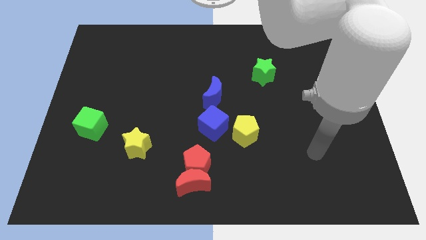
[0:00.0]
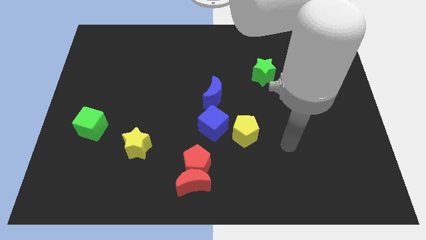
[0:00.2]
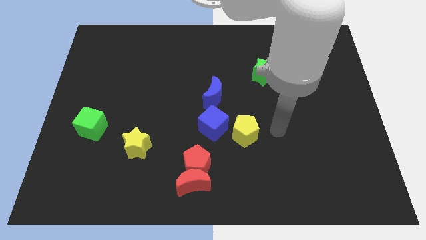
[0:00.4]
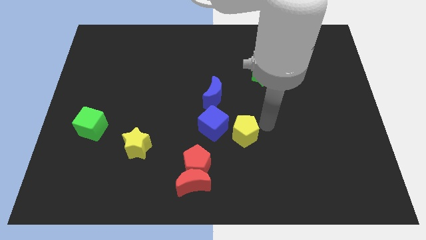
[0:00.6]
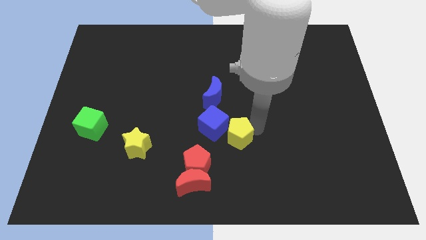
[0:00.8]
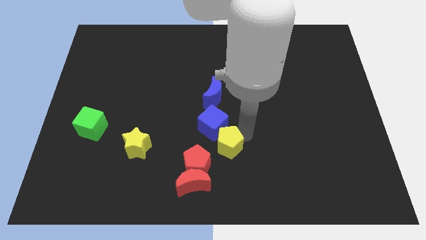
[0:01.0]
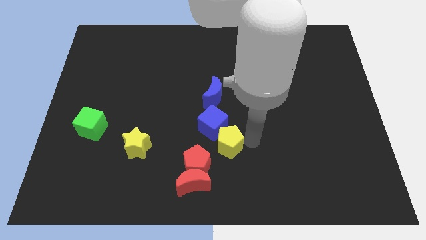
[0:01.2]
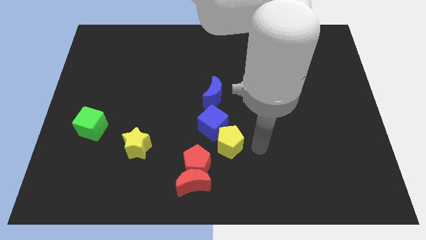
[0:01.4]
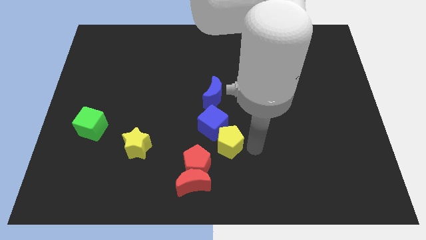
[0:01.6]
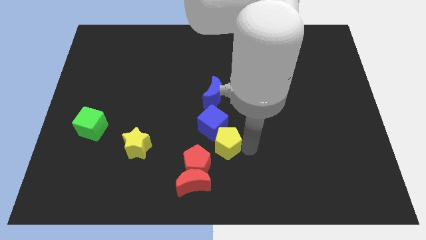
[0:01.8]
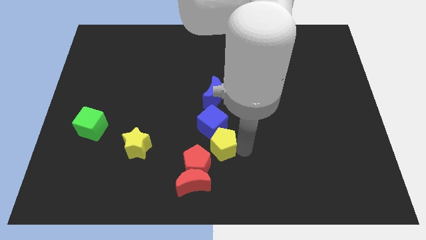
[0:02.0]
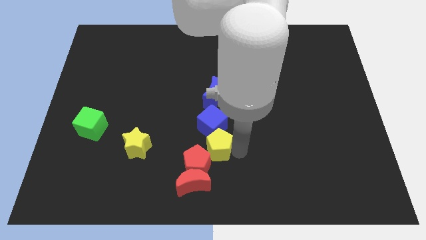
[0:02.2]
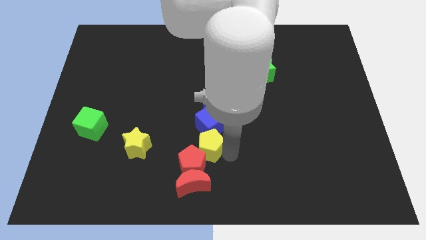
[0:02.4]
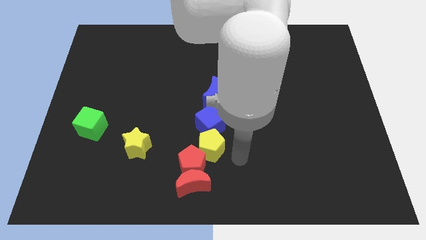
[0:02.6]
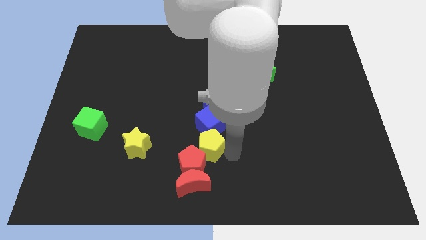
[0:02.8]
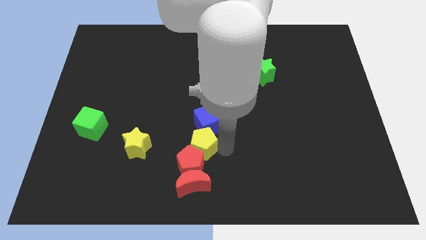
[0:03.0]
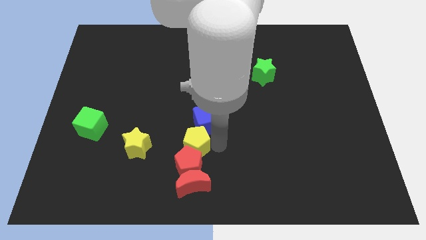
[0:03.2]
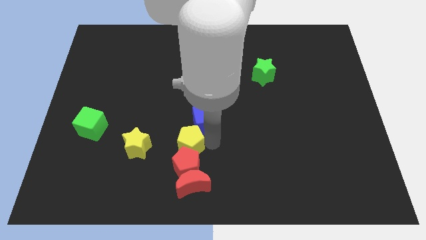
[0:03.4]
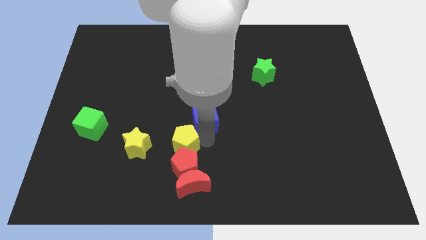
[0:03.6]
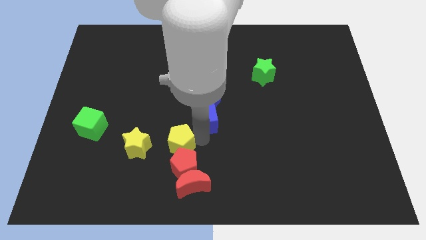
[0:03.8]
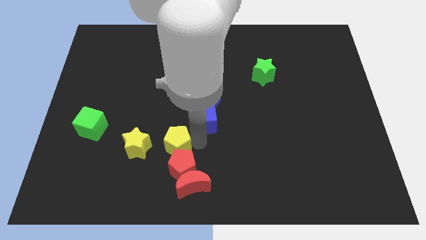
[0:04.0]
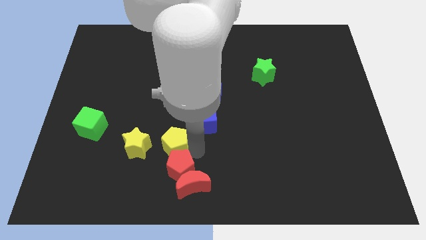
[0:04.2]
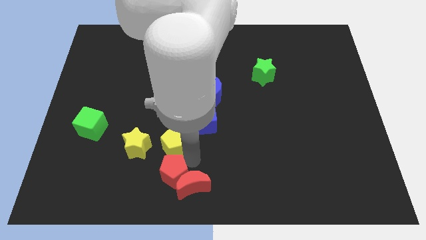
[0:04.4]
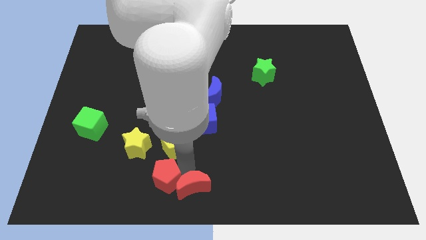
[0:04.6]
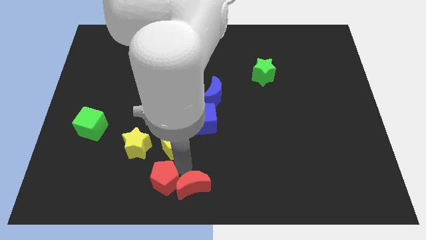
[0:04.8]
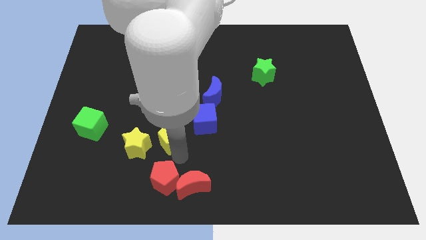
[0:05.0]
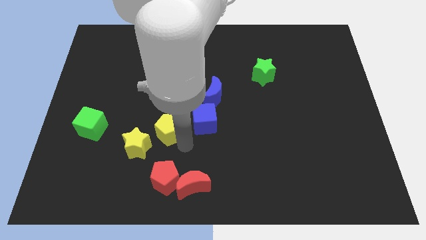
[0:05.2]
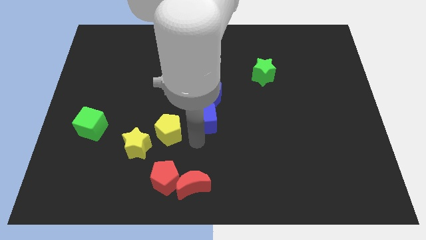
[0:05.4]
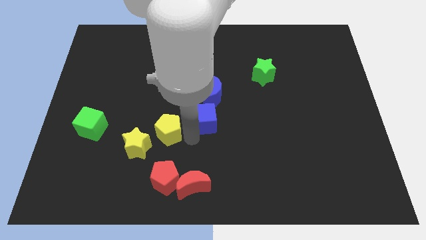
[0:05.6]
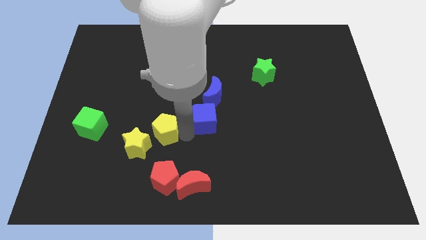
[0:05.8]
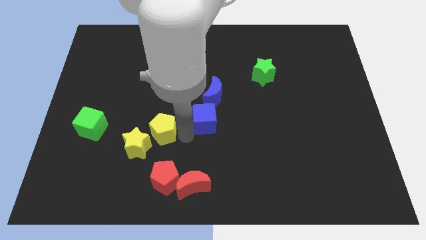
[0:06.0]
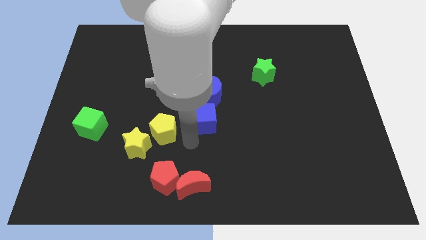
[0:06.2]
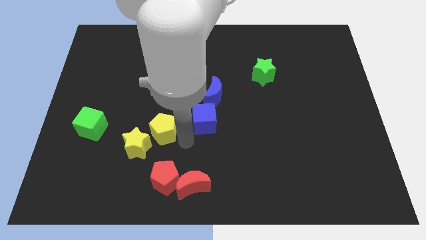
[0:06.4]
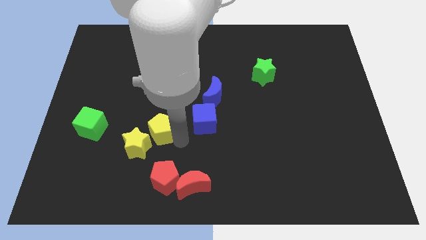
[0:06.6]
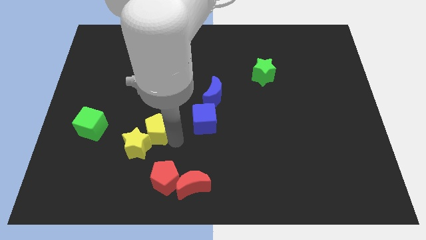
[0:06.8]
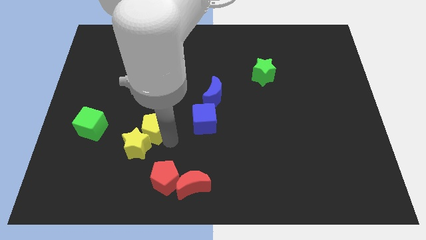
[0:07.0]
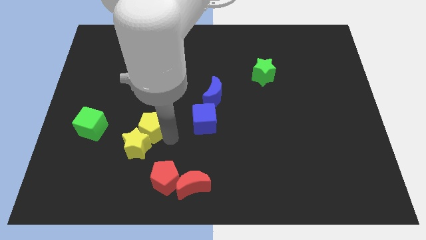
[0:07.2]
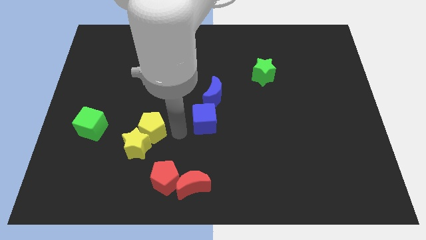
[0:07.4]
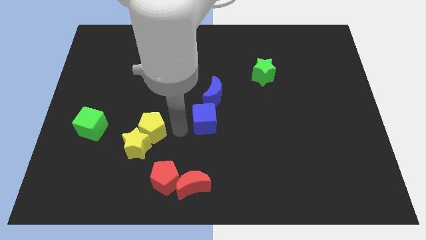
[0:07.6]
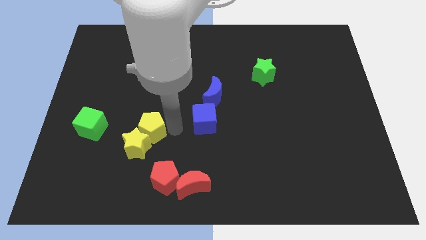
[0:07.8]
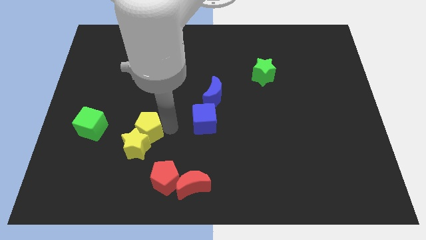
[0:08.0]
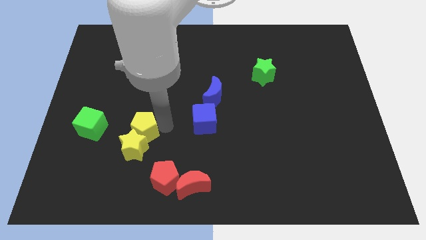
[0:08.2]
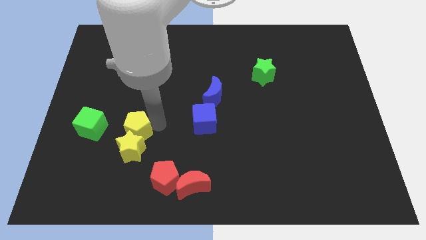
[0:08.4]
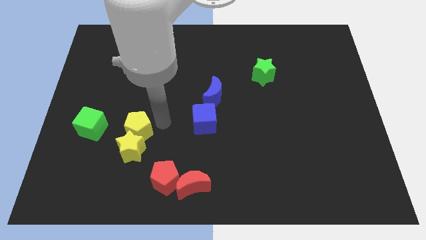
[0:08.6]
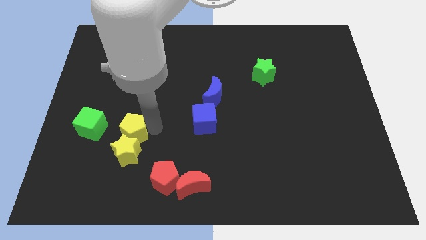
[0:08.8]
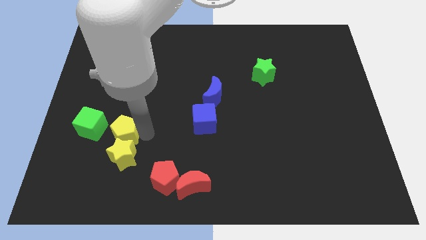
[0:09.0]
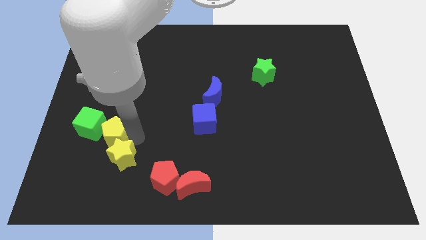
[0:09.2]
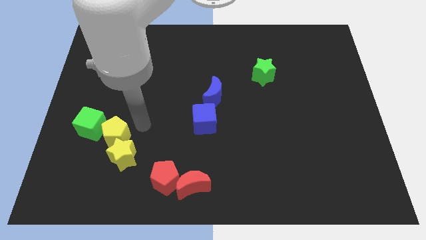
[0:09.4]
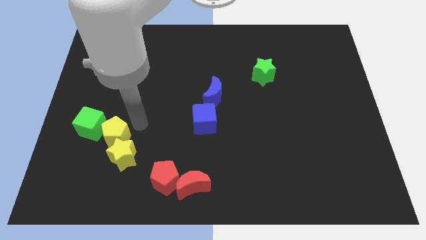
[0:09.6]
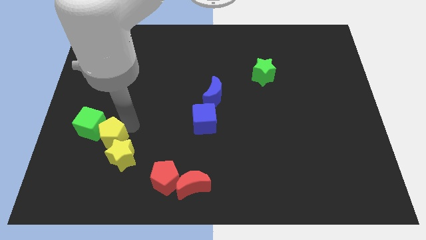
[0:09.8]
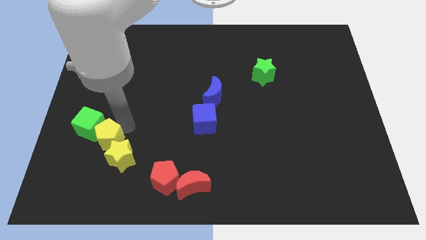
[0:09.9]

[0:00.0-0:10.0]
slide the yellow pentagon to the left side of the yellow star

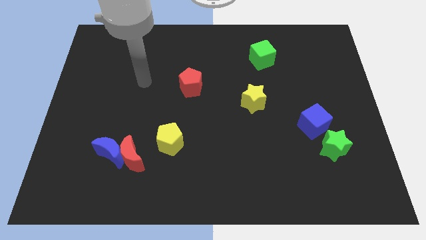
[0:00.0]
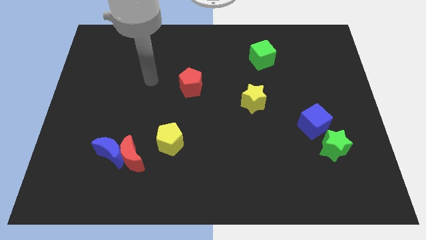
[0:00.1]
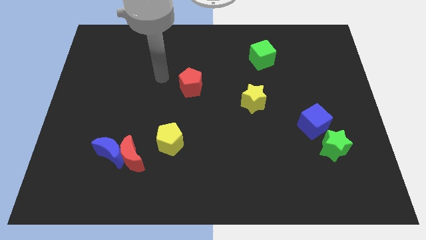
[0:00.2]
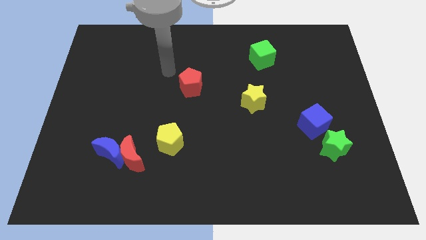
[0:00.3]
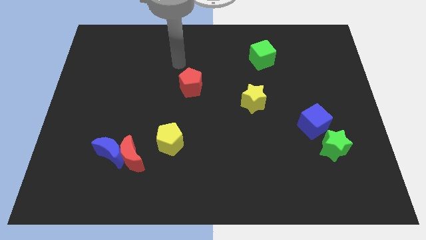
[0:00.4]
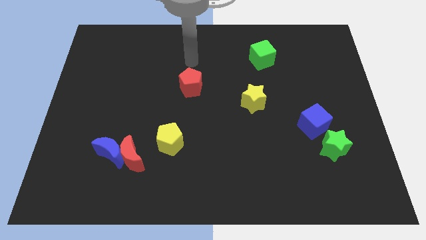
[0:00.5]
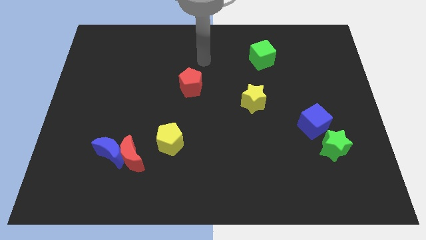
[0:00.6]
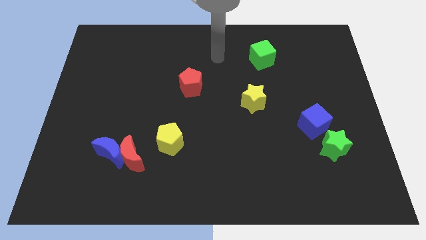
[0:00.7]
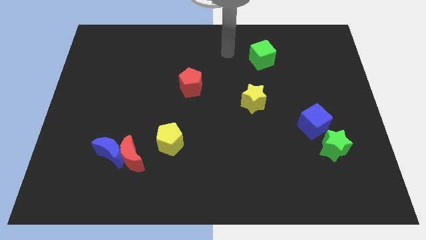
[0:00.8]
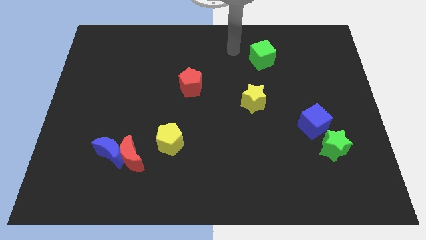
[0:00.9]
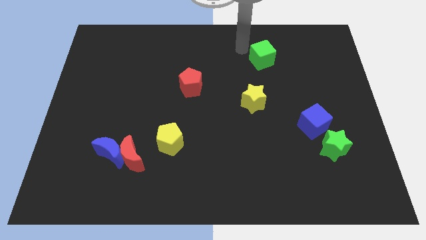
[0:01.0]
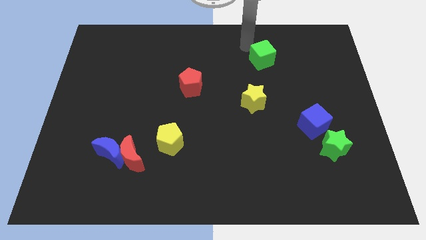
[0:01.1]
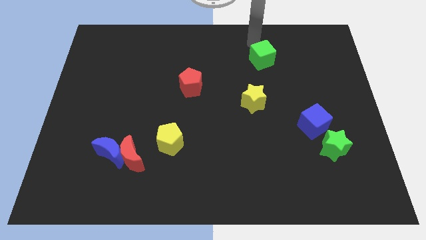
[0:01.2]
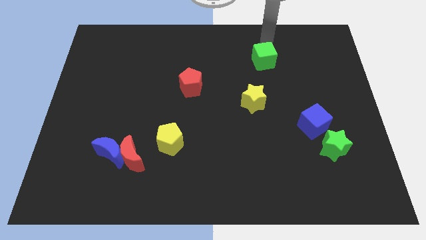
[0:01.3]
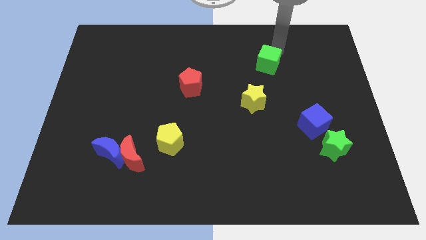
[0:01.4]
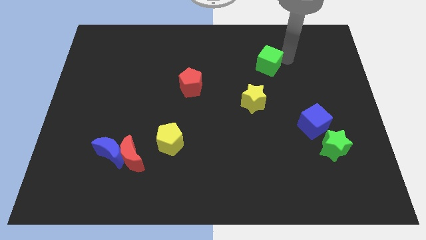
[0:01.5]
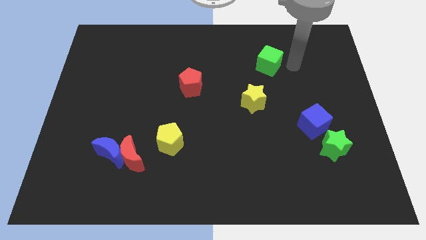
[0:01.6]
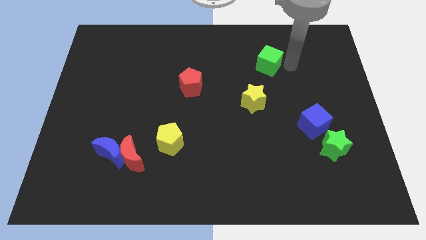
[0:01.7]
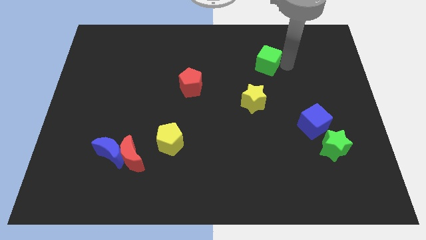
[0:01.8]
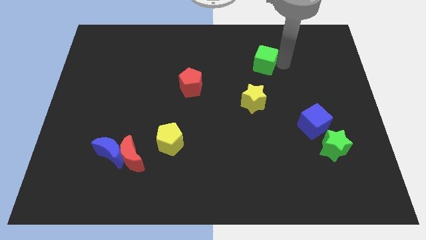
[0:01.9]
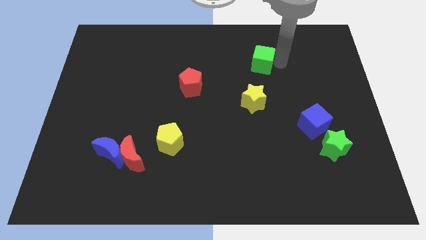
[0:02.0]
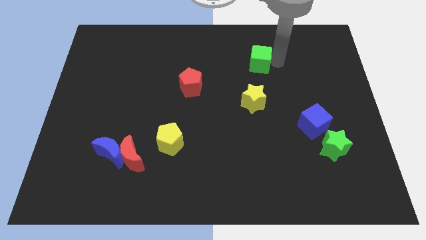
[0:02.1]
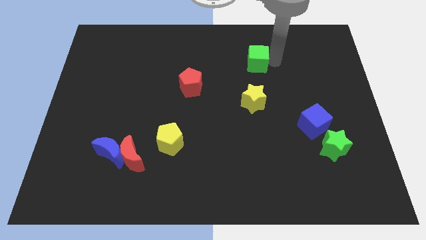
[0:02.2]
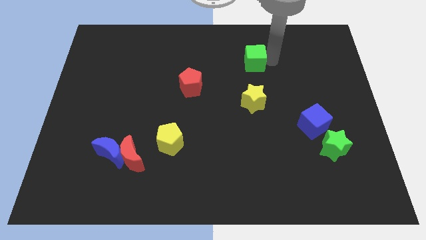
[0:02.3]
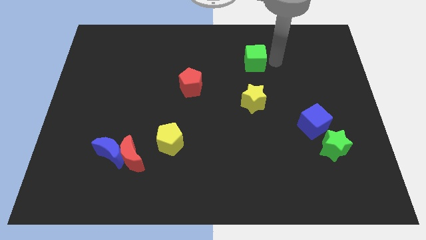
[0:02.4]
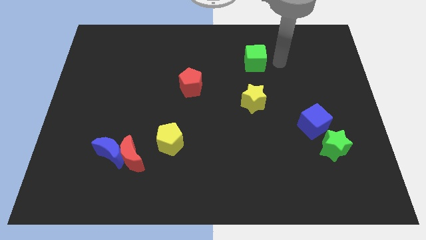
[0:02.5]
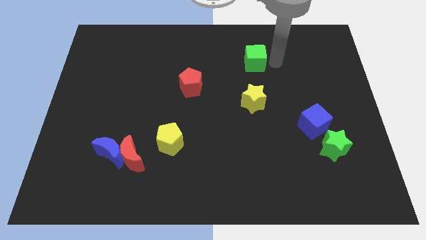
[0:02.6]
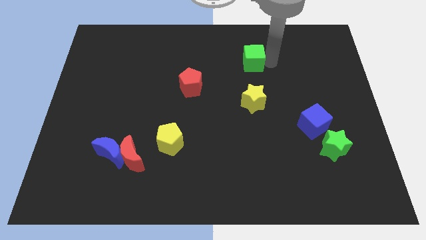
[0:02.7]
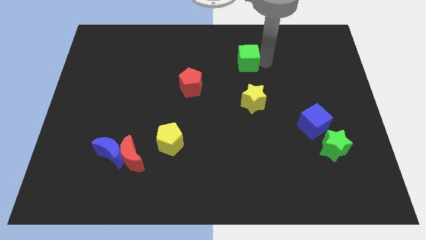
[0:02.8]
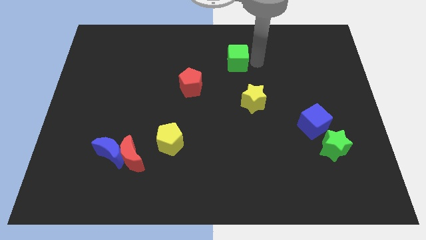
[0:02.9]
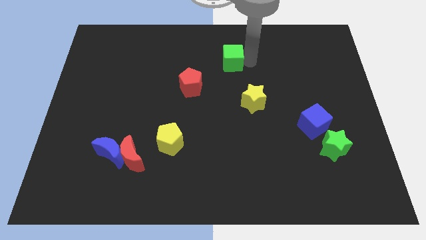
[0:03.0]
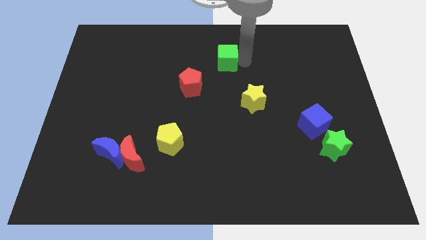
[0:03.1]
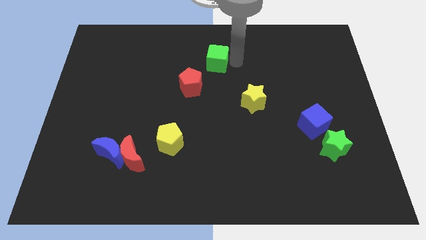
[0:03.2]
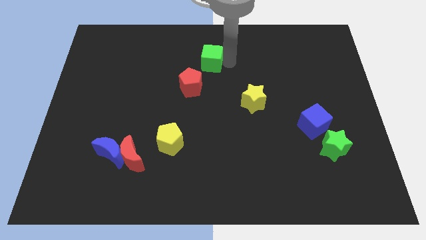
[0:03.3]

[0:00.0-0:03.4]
push the green cube to the top of the red pentagon
